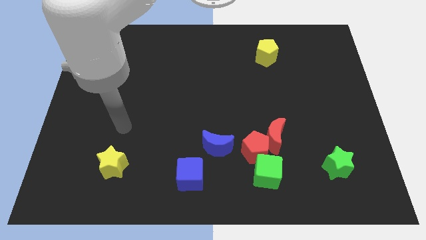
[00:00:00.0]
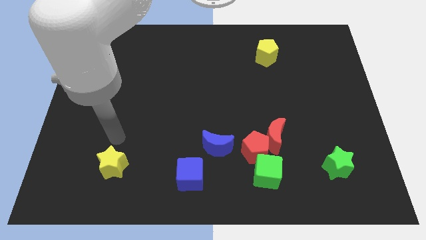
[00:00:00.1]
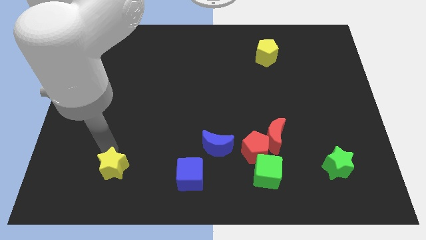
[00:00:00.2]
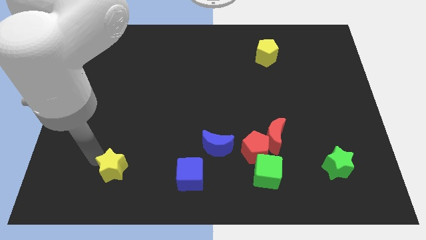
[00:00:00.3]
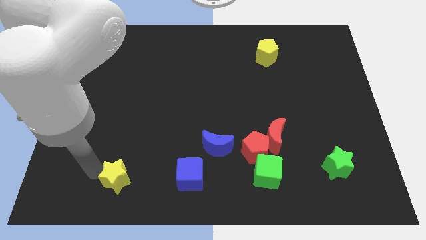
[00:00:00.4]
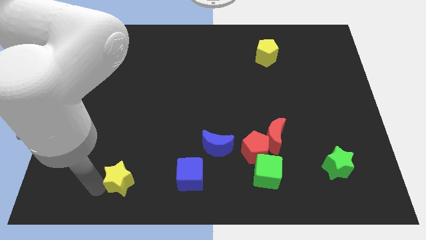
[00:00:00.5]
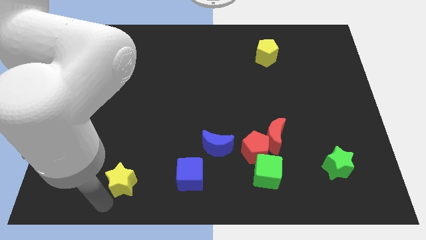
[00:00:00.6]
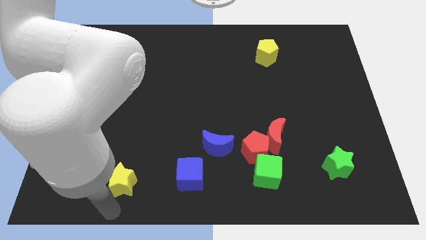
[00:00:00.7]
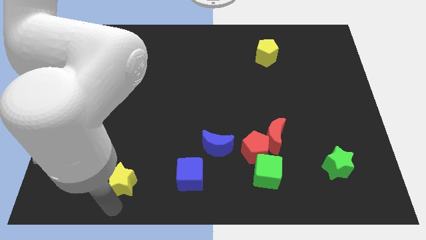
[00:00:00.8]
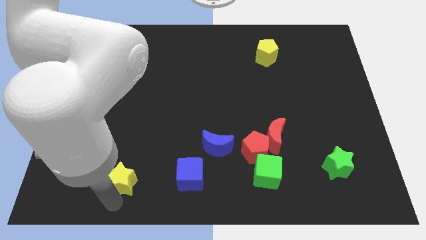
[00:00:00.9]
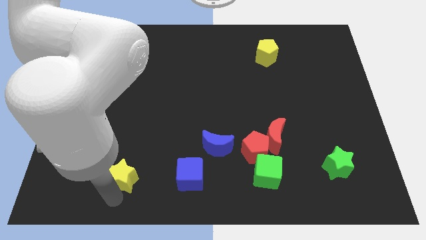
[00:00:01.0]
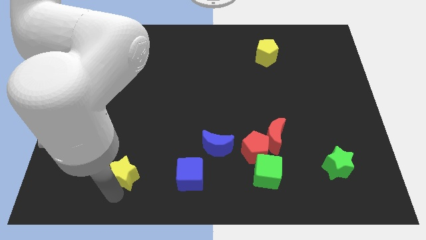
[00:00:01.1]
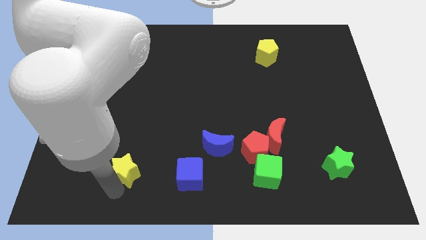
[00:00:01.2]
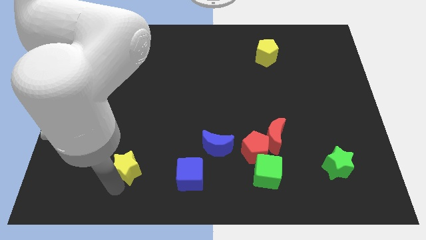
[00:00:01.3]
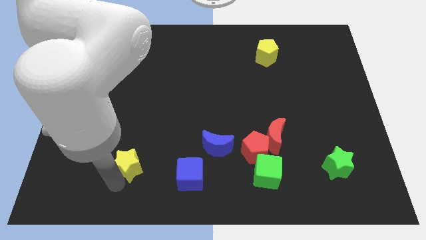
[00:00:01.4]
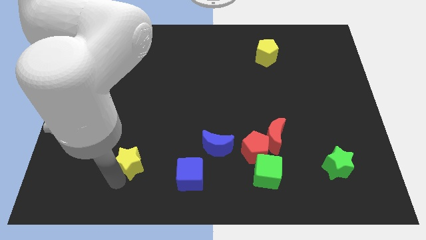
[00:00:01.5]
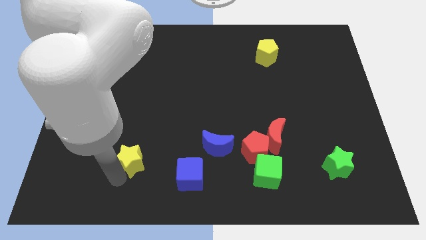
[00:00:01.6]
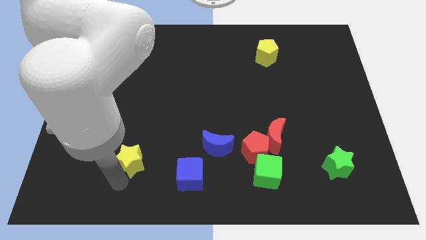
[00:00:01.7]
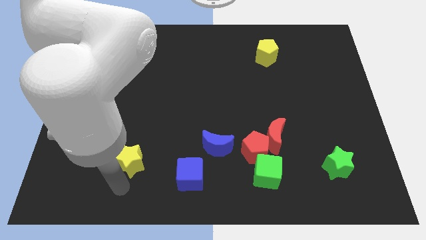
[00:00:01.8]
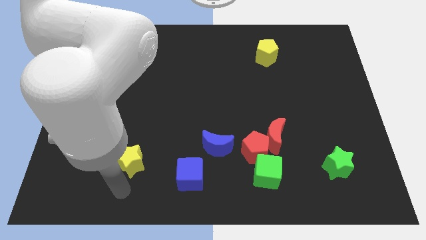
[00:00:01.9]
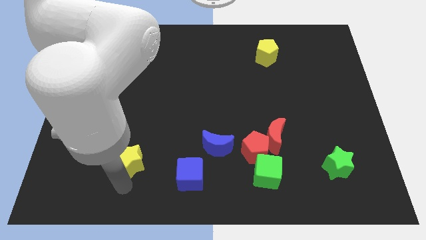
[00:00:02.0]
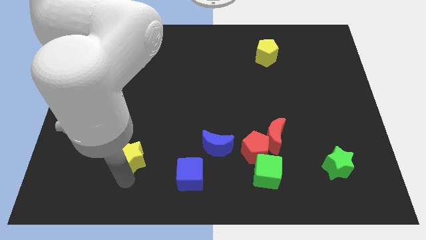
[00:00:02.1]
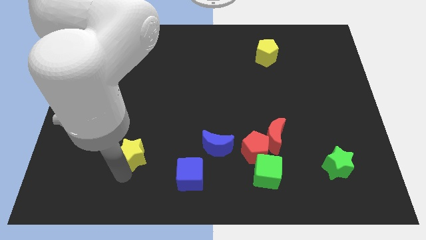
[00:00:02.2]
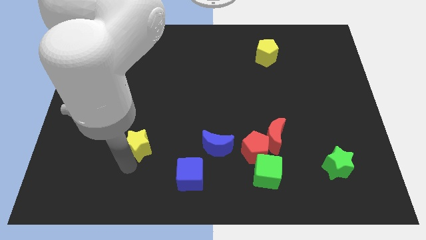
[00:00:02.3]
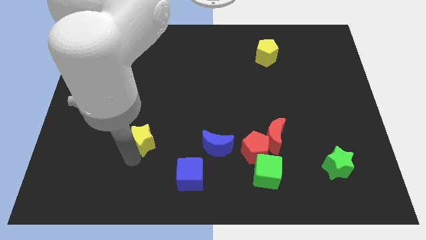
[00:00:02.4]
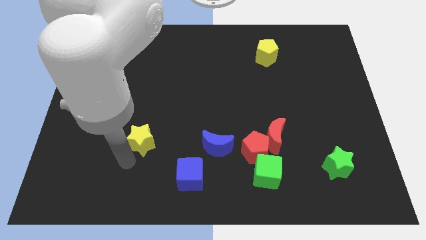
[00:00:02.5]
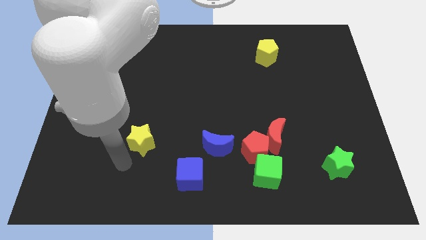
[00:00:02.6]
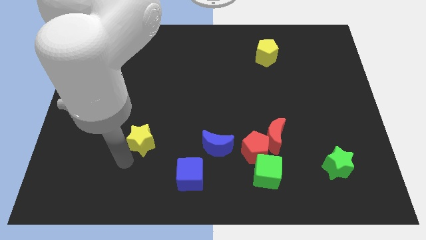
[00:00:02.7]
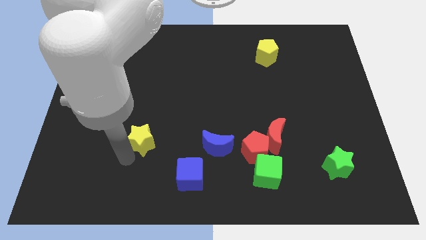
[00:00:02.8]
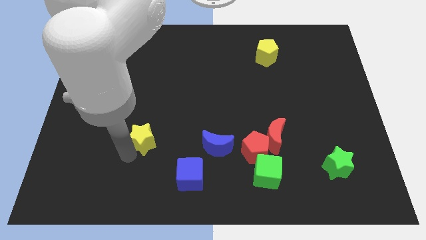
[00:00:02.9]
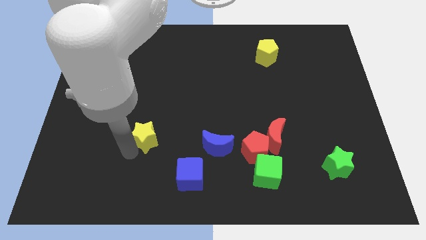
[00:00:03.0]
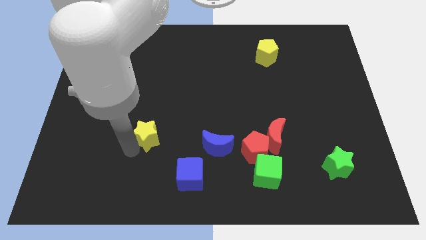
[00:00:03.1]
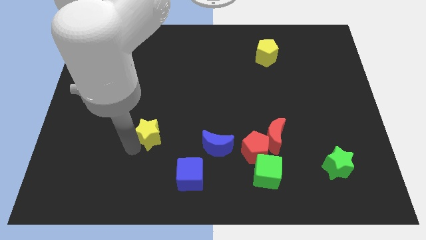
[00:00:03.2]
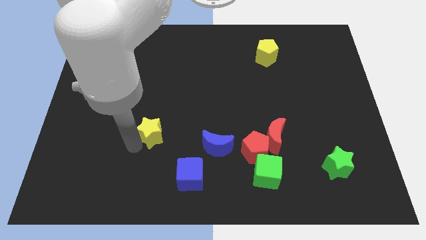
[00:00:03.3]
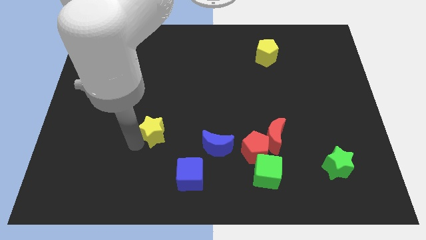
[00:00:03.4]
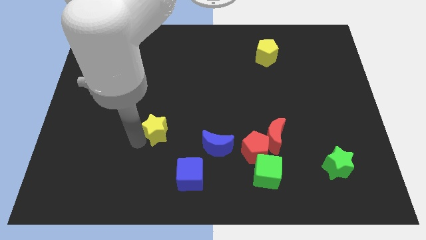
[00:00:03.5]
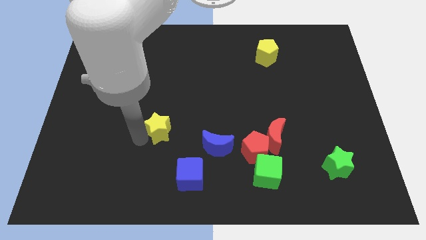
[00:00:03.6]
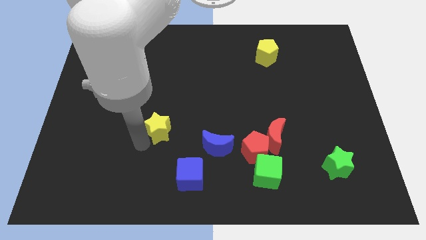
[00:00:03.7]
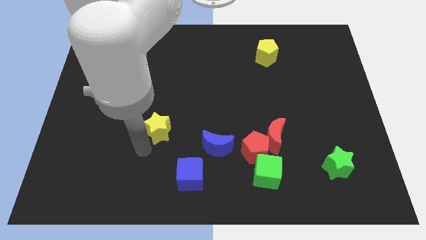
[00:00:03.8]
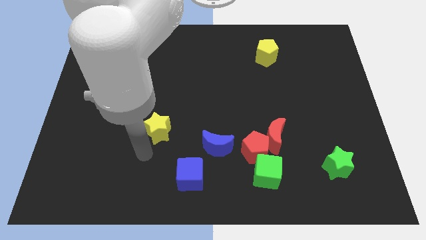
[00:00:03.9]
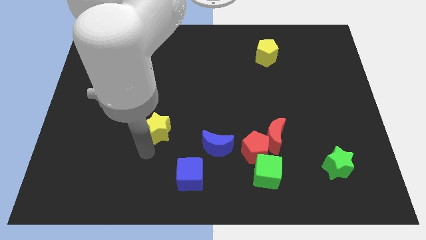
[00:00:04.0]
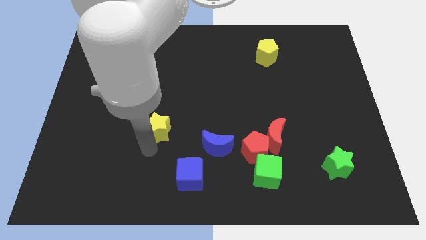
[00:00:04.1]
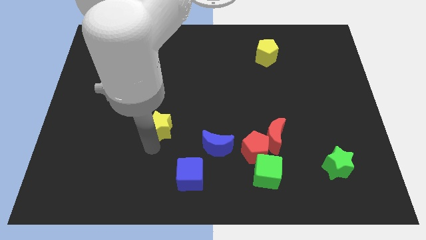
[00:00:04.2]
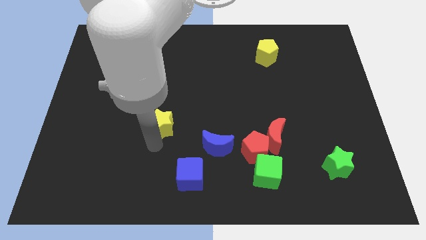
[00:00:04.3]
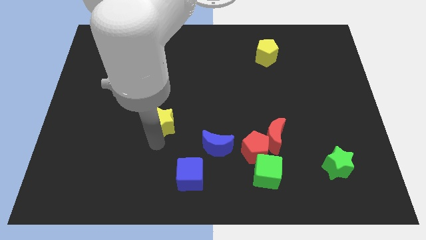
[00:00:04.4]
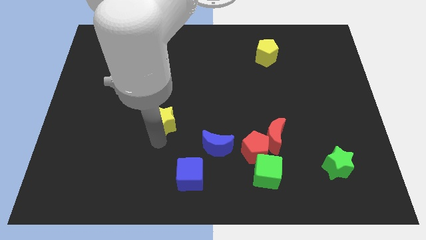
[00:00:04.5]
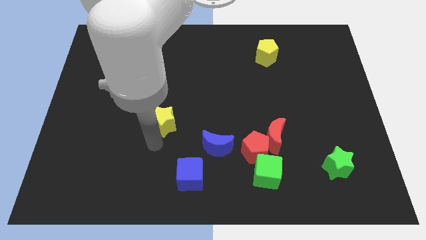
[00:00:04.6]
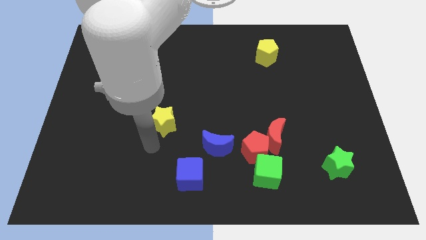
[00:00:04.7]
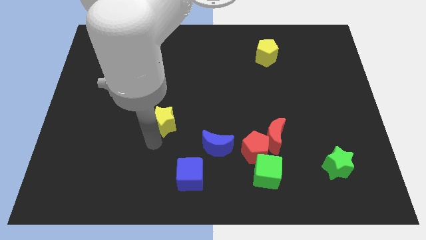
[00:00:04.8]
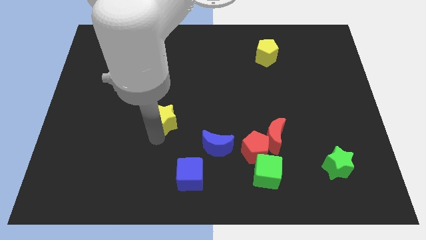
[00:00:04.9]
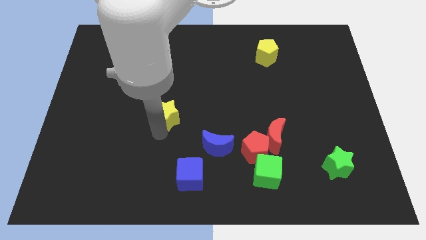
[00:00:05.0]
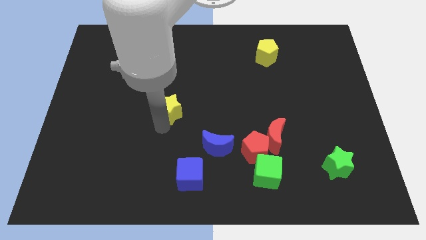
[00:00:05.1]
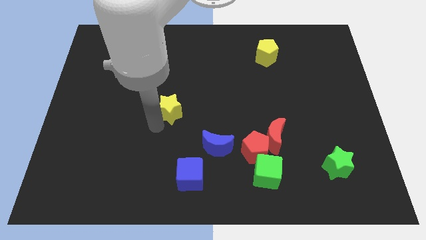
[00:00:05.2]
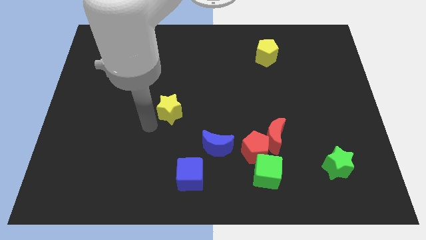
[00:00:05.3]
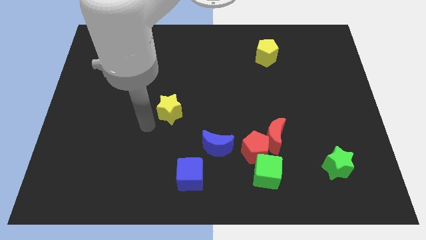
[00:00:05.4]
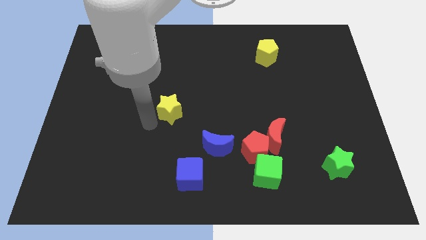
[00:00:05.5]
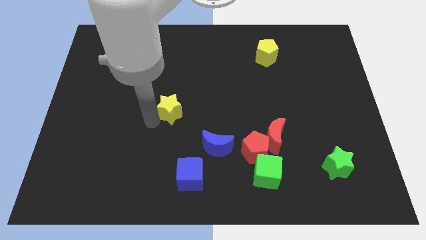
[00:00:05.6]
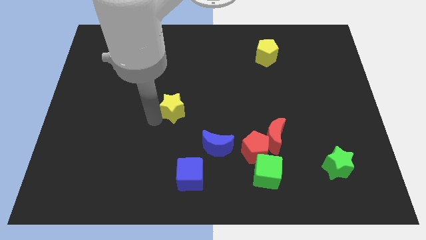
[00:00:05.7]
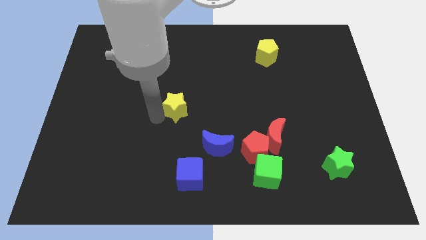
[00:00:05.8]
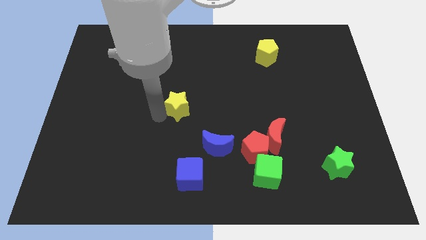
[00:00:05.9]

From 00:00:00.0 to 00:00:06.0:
move the yellow star upwards and then to the right

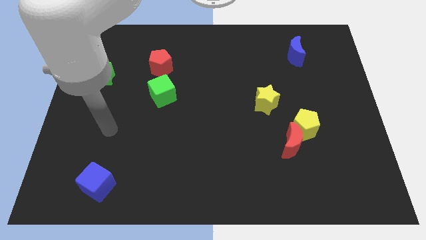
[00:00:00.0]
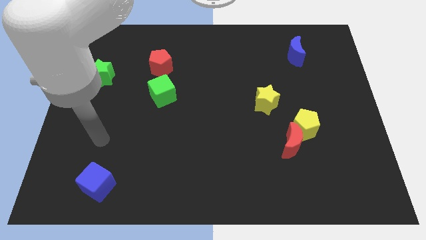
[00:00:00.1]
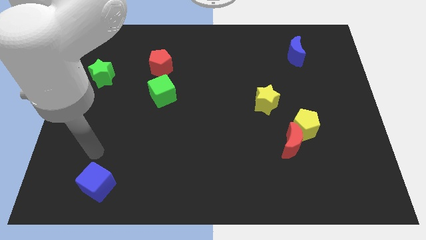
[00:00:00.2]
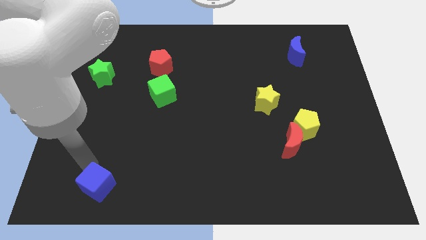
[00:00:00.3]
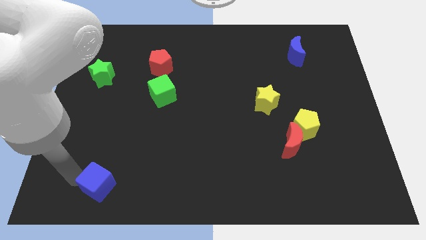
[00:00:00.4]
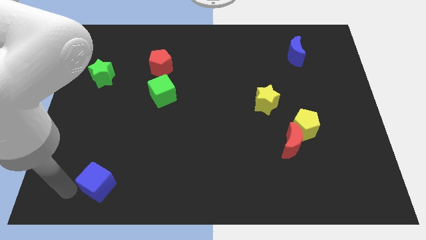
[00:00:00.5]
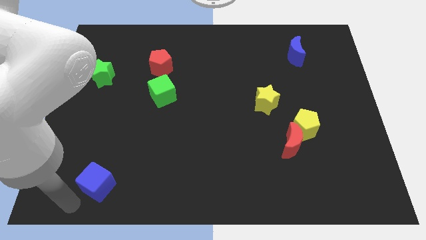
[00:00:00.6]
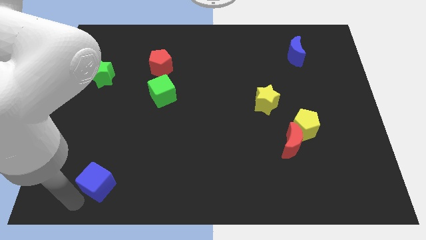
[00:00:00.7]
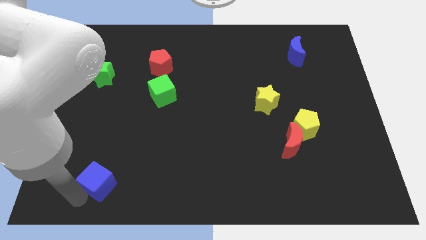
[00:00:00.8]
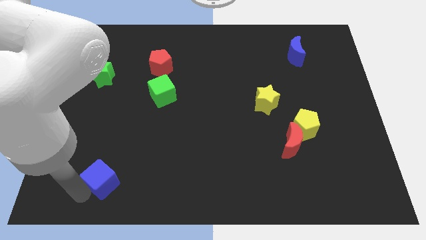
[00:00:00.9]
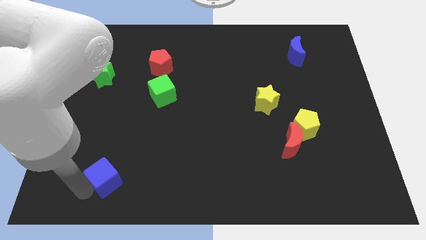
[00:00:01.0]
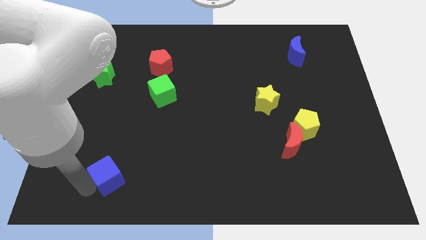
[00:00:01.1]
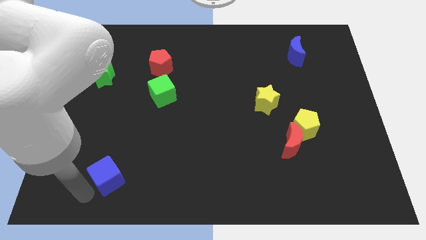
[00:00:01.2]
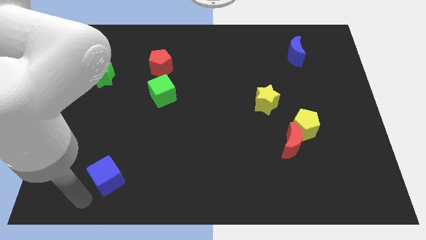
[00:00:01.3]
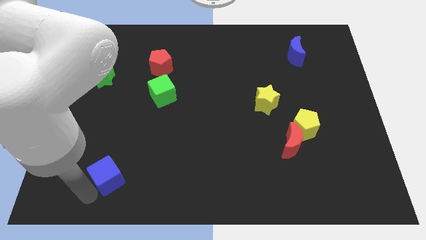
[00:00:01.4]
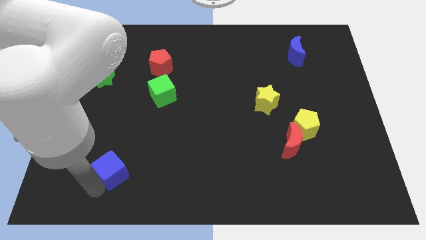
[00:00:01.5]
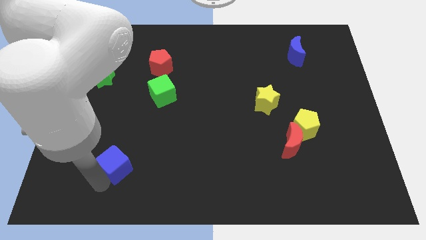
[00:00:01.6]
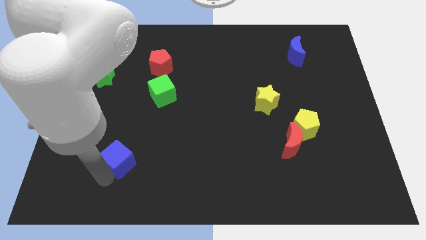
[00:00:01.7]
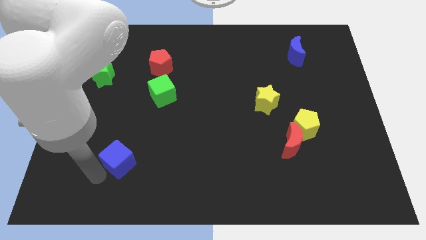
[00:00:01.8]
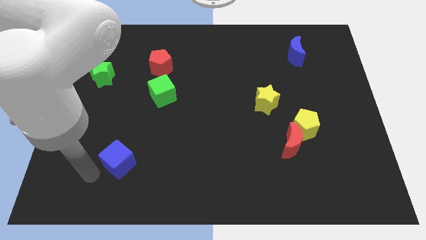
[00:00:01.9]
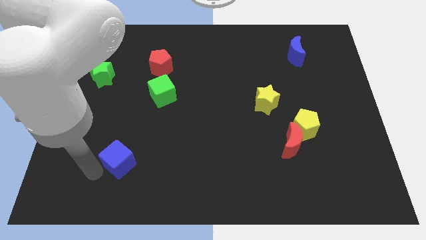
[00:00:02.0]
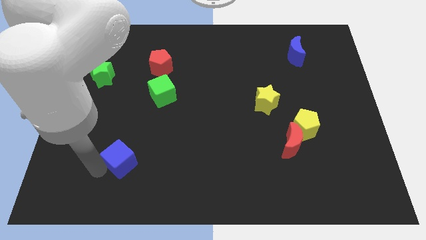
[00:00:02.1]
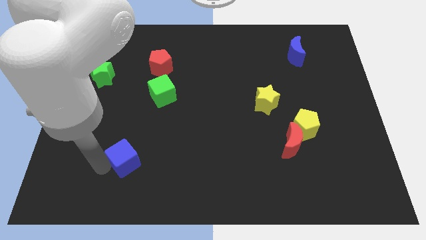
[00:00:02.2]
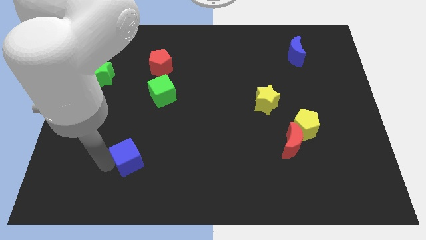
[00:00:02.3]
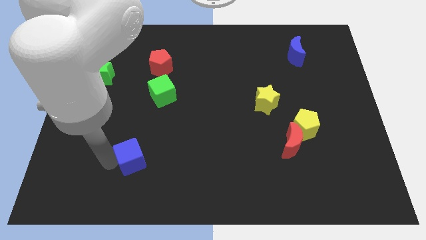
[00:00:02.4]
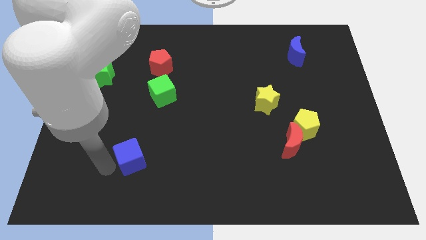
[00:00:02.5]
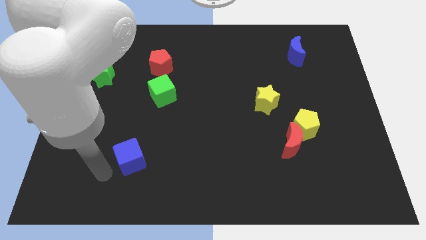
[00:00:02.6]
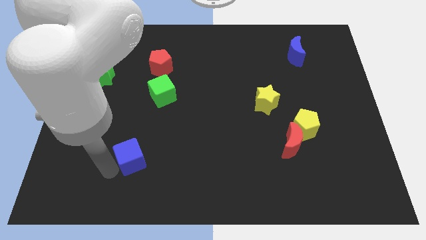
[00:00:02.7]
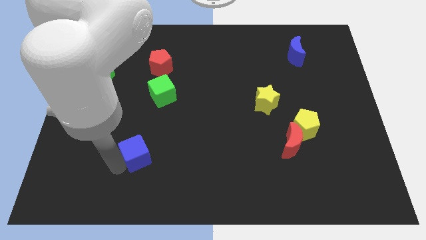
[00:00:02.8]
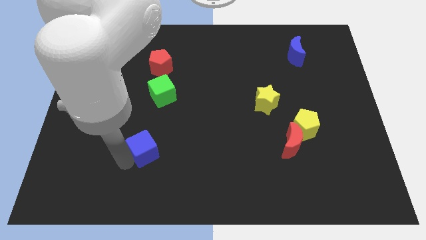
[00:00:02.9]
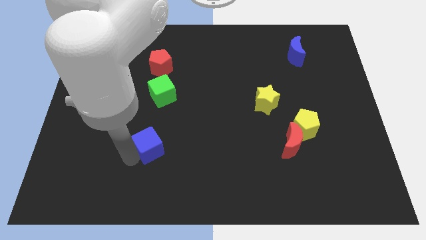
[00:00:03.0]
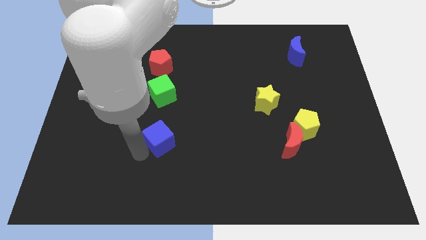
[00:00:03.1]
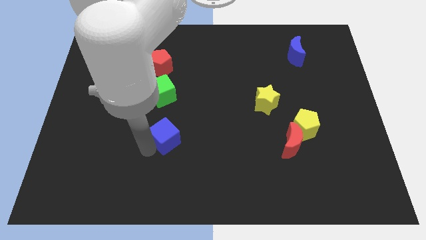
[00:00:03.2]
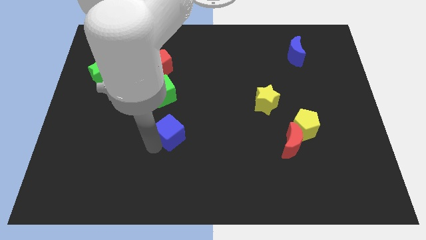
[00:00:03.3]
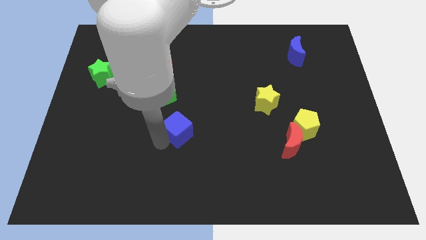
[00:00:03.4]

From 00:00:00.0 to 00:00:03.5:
push the blue cube upwards and right diagonally
